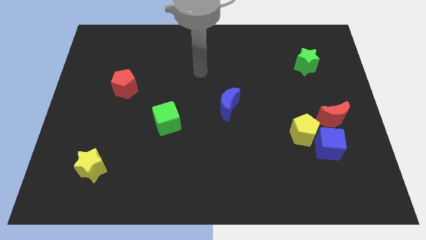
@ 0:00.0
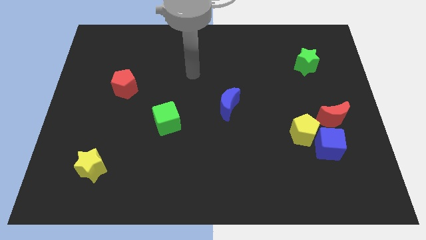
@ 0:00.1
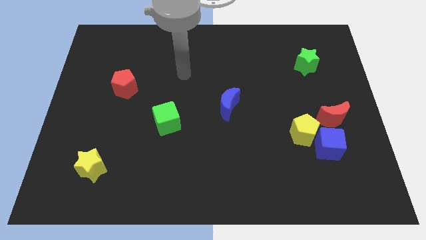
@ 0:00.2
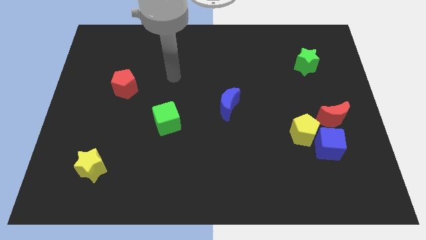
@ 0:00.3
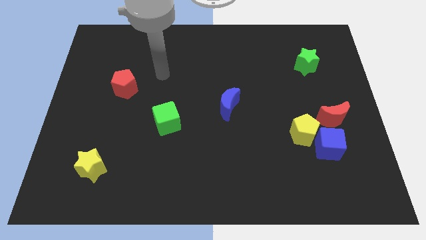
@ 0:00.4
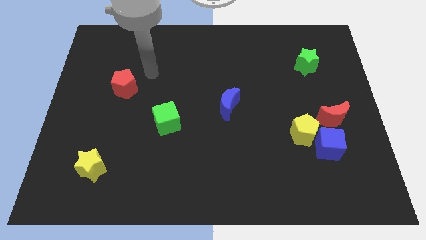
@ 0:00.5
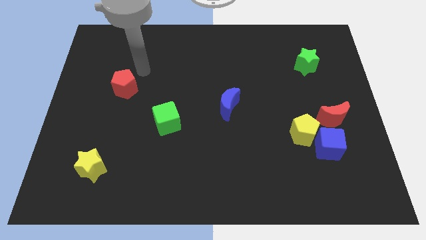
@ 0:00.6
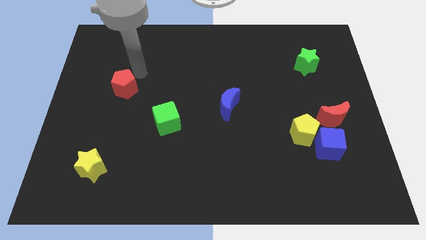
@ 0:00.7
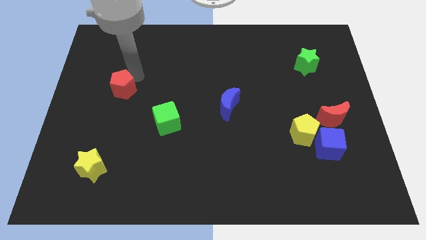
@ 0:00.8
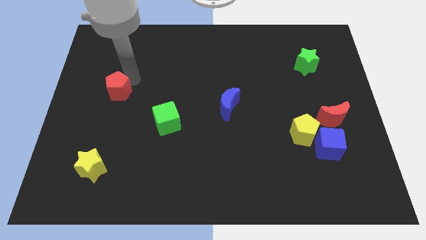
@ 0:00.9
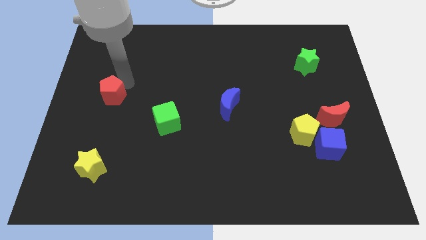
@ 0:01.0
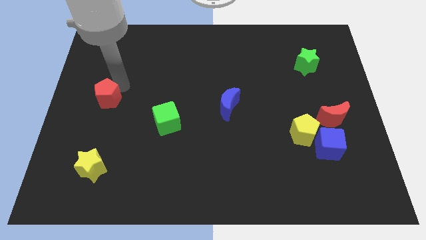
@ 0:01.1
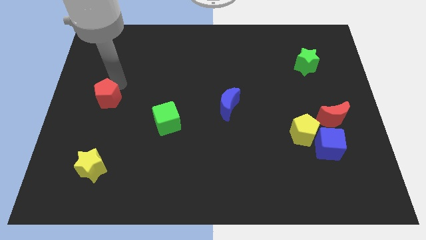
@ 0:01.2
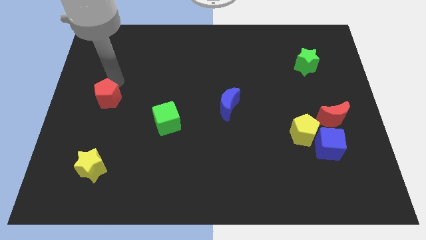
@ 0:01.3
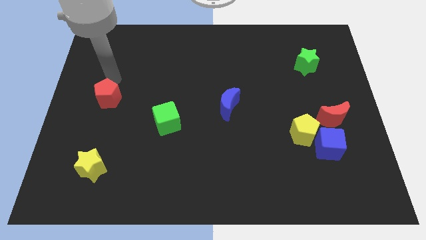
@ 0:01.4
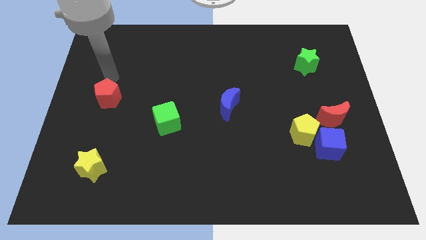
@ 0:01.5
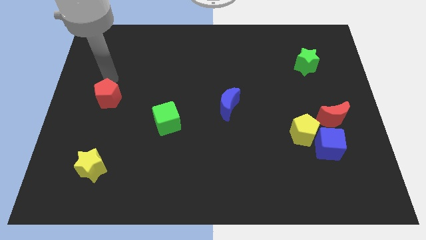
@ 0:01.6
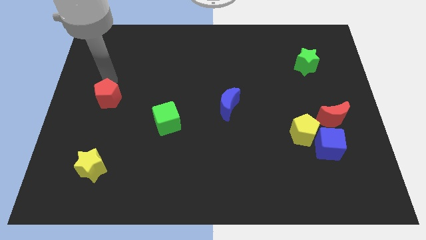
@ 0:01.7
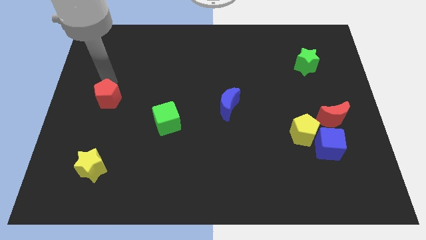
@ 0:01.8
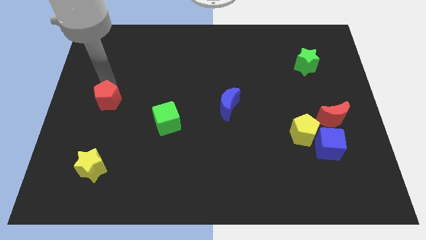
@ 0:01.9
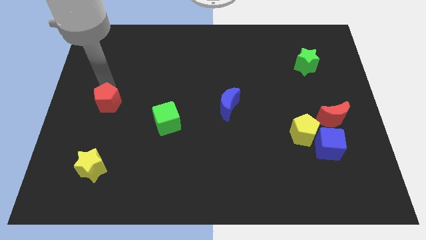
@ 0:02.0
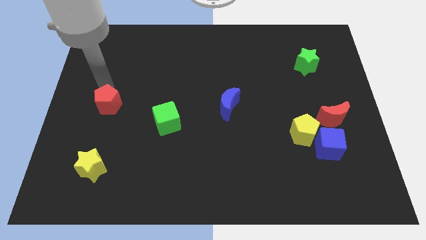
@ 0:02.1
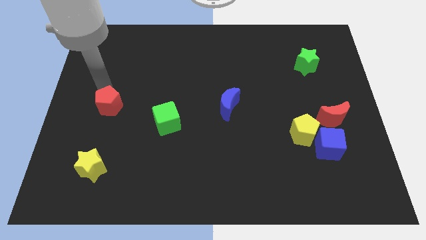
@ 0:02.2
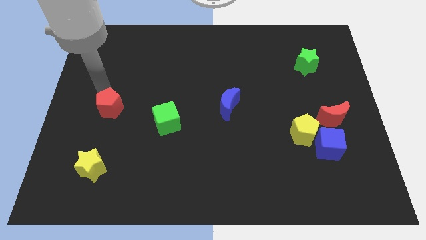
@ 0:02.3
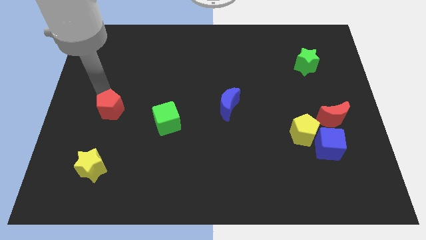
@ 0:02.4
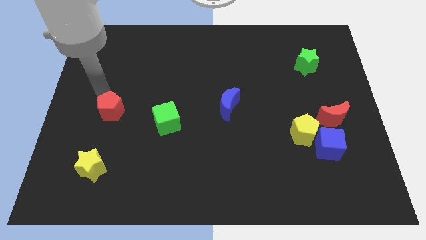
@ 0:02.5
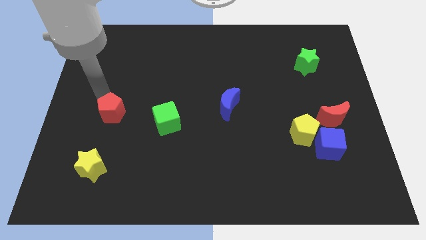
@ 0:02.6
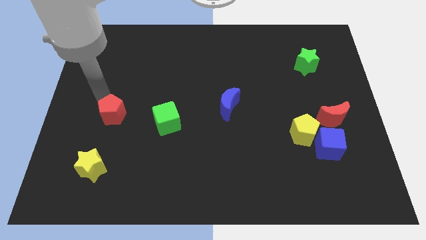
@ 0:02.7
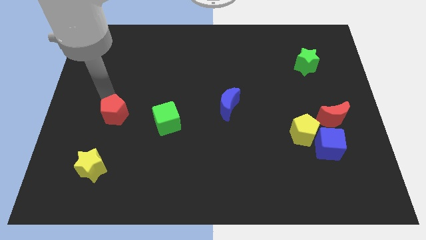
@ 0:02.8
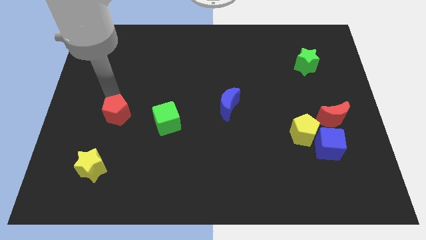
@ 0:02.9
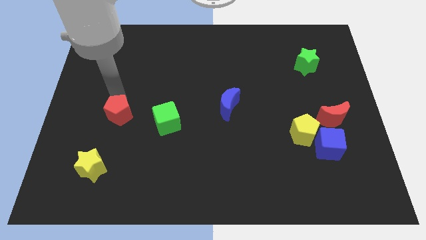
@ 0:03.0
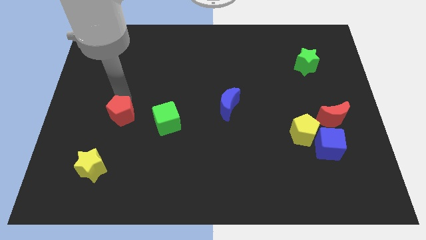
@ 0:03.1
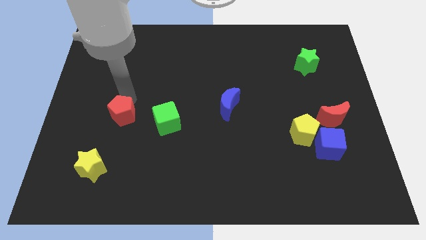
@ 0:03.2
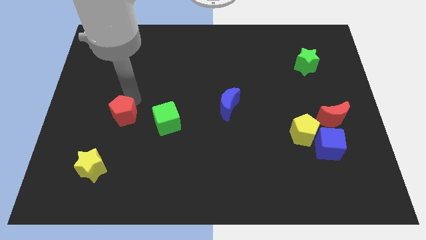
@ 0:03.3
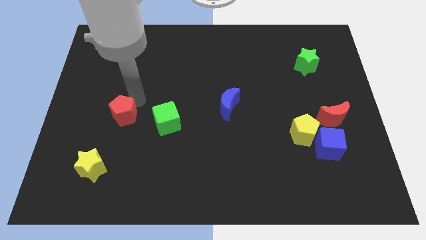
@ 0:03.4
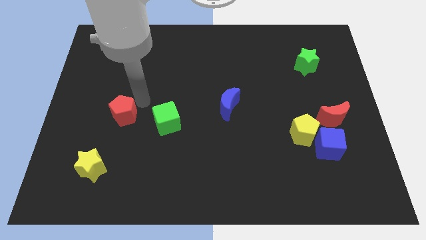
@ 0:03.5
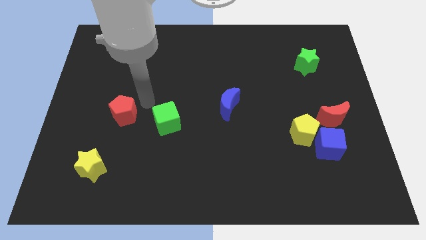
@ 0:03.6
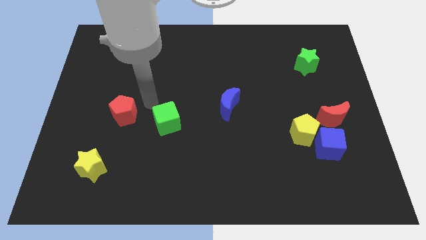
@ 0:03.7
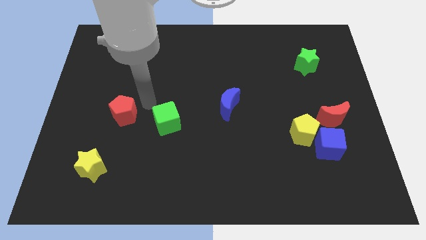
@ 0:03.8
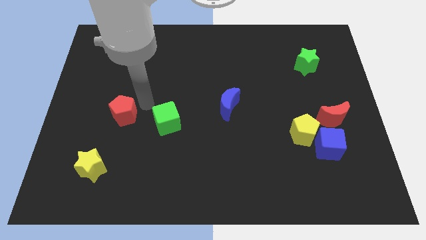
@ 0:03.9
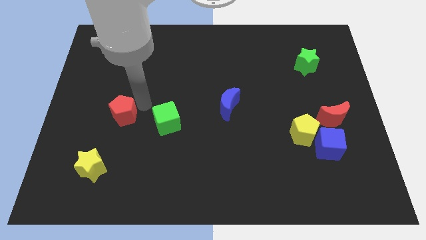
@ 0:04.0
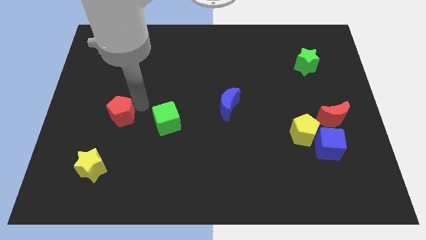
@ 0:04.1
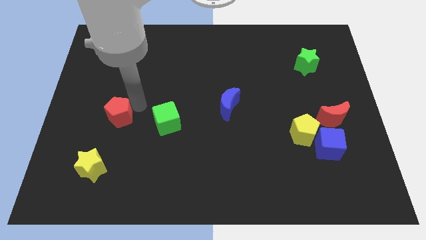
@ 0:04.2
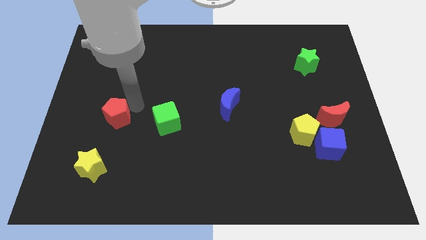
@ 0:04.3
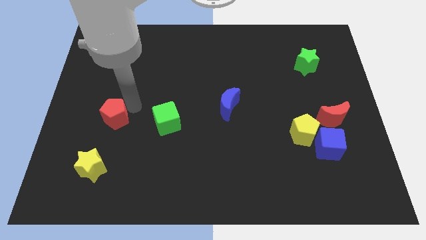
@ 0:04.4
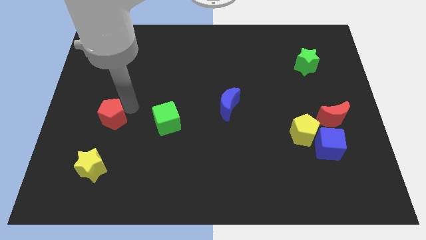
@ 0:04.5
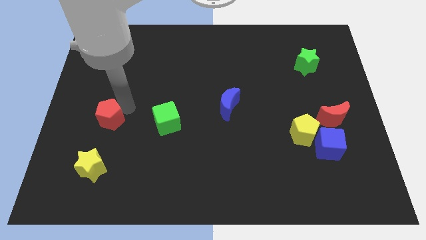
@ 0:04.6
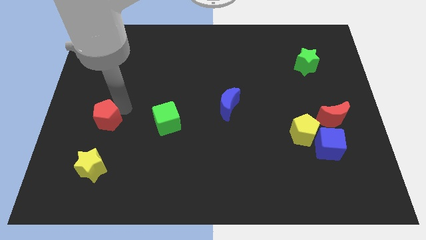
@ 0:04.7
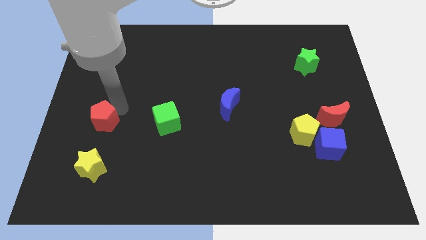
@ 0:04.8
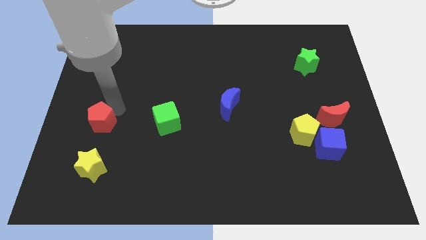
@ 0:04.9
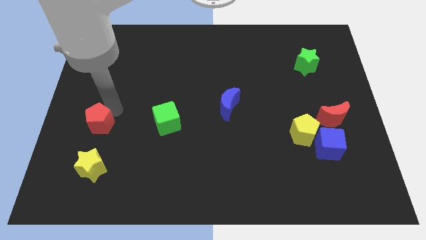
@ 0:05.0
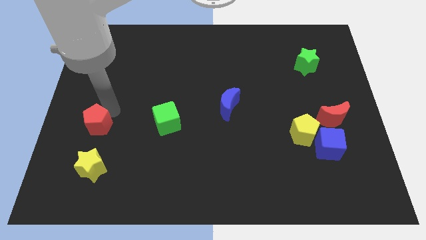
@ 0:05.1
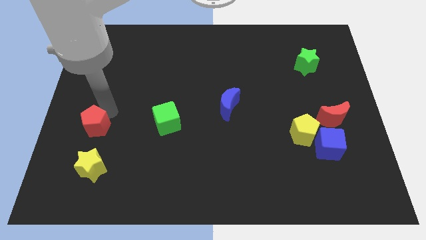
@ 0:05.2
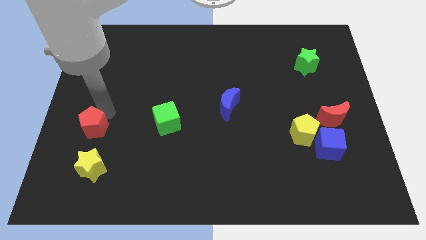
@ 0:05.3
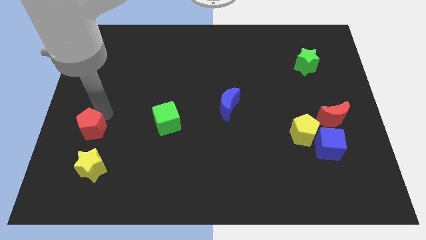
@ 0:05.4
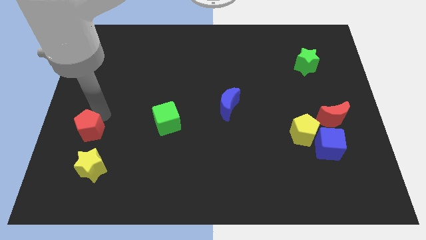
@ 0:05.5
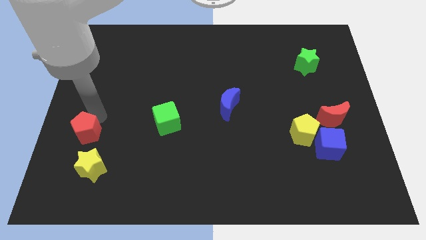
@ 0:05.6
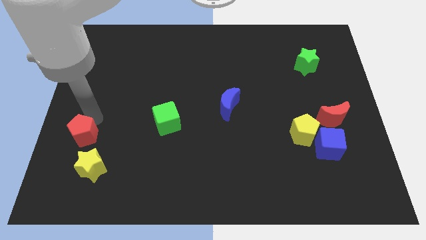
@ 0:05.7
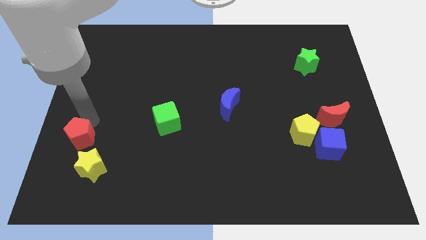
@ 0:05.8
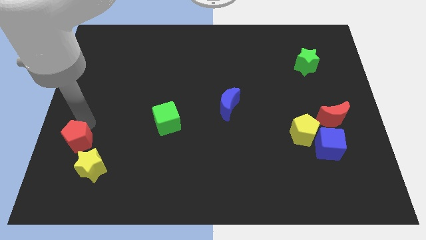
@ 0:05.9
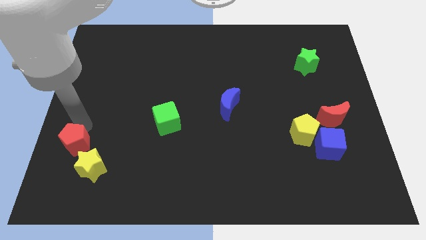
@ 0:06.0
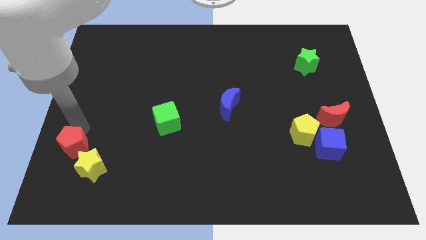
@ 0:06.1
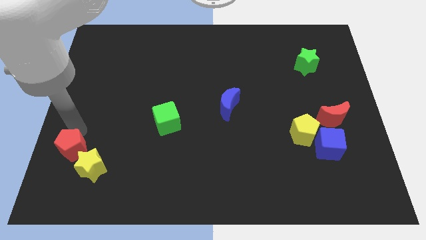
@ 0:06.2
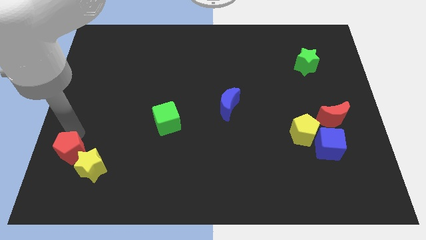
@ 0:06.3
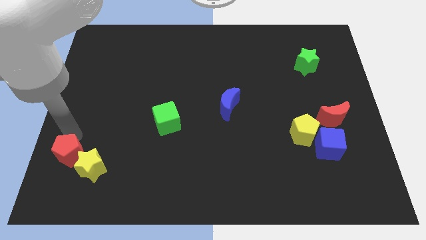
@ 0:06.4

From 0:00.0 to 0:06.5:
slide the red pentagon close to the yellow star

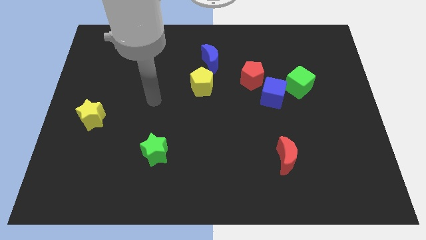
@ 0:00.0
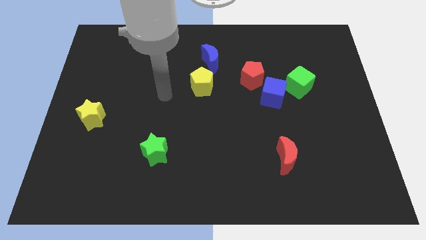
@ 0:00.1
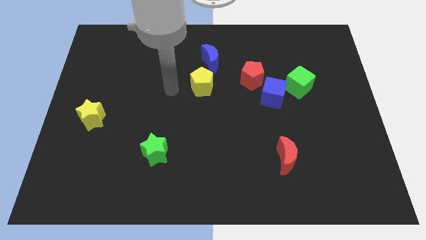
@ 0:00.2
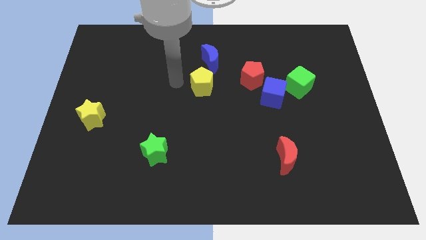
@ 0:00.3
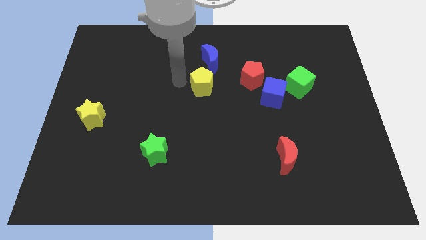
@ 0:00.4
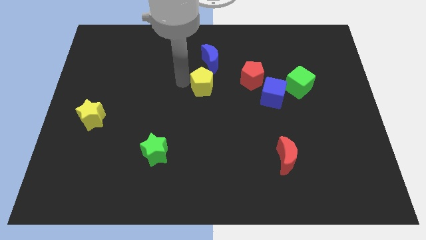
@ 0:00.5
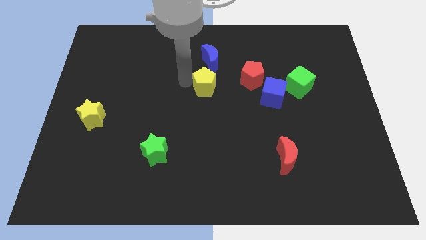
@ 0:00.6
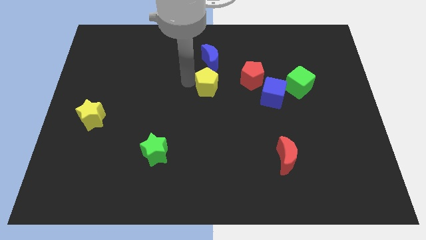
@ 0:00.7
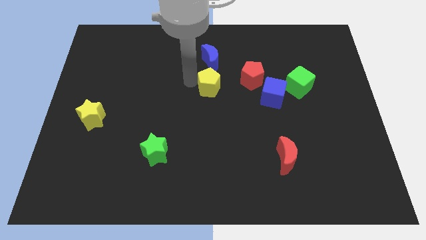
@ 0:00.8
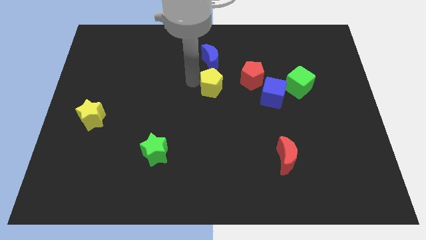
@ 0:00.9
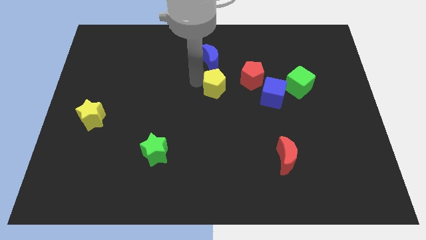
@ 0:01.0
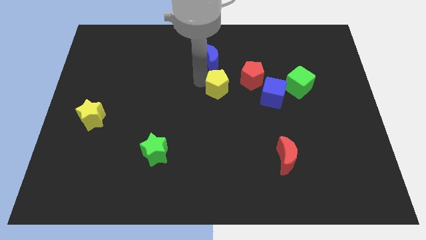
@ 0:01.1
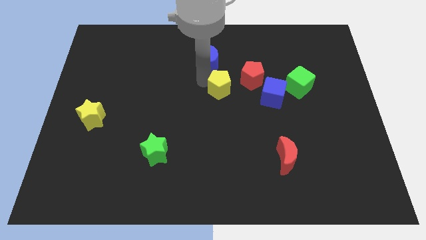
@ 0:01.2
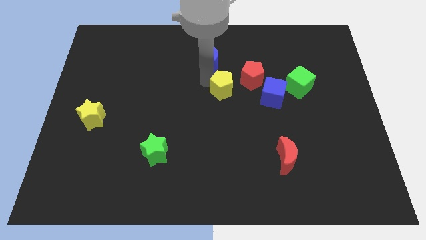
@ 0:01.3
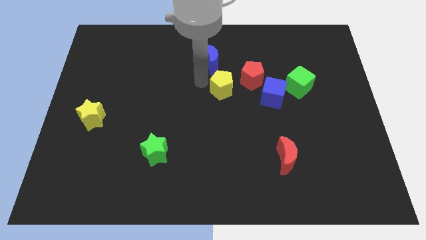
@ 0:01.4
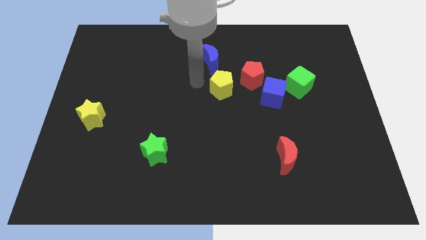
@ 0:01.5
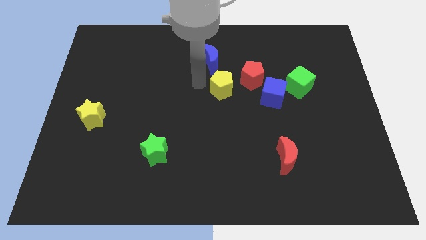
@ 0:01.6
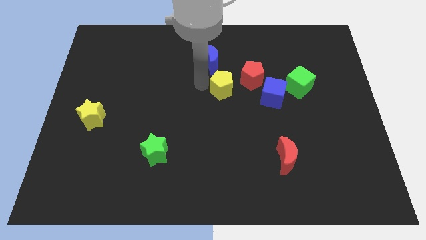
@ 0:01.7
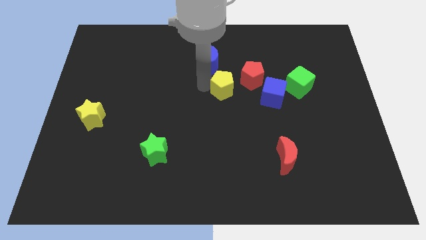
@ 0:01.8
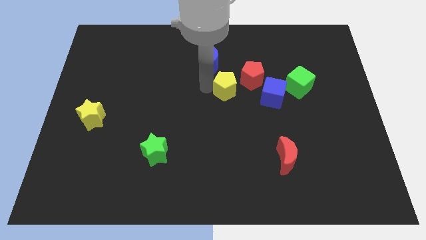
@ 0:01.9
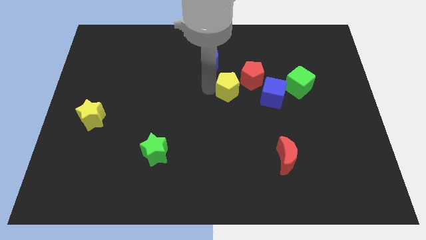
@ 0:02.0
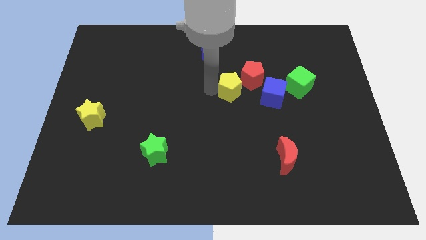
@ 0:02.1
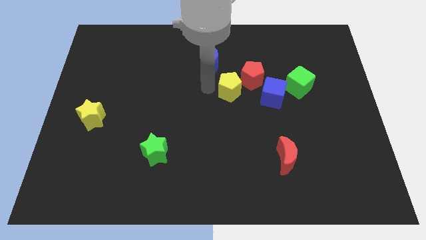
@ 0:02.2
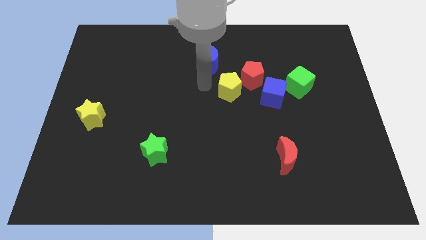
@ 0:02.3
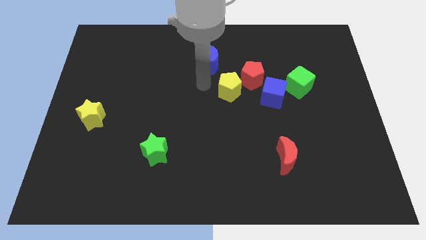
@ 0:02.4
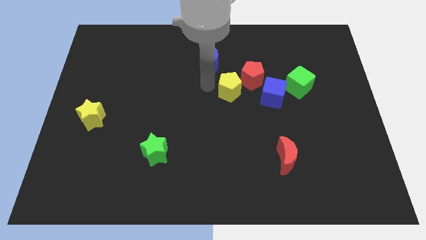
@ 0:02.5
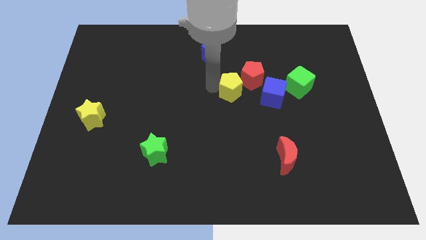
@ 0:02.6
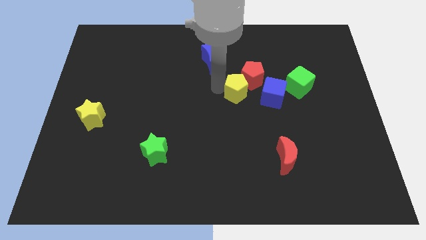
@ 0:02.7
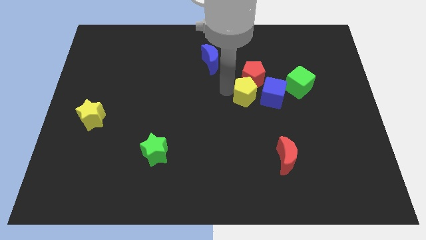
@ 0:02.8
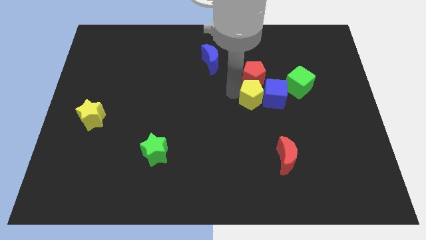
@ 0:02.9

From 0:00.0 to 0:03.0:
put the yellow pentagon to the blue cube
